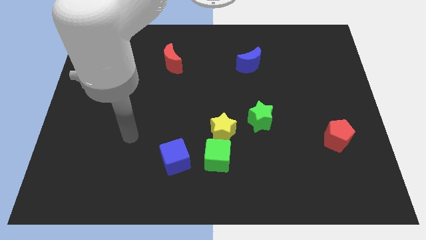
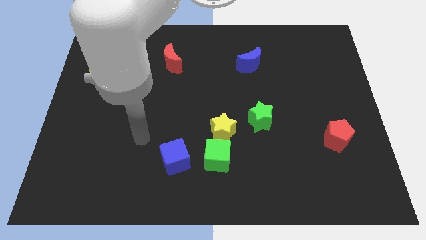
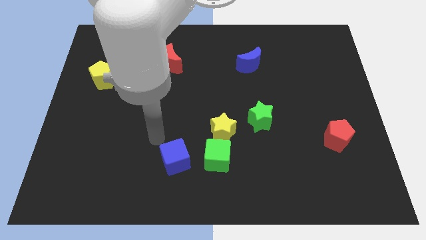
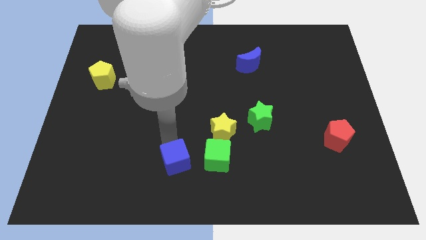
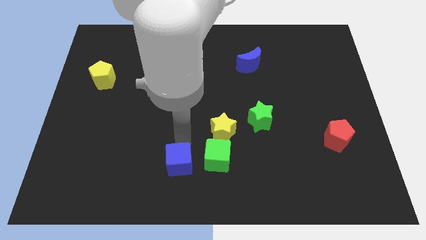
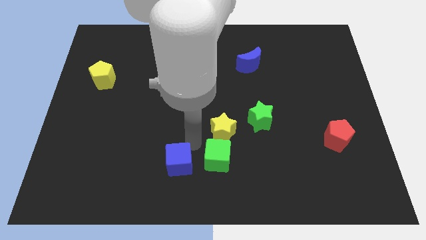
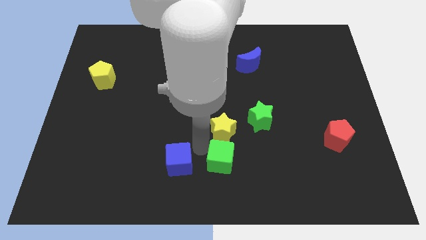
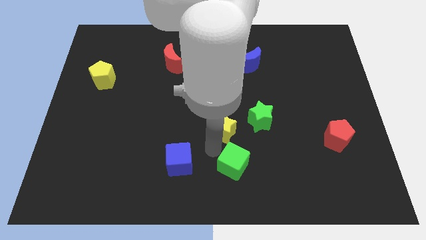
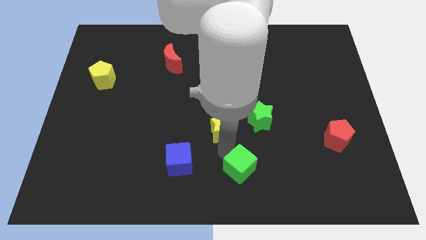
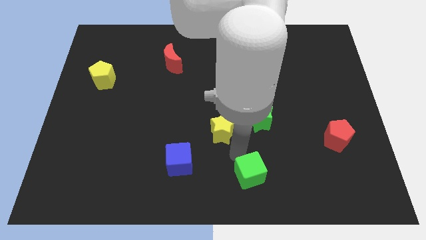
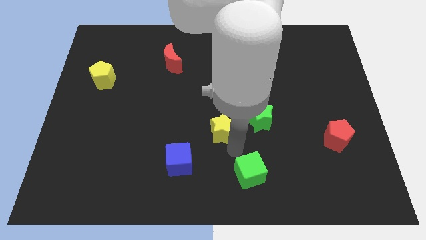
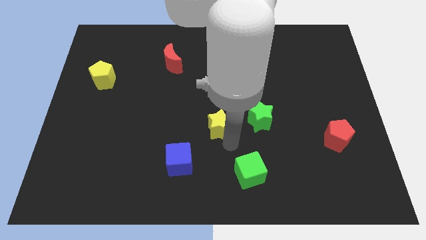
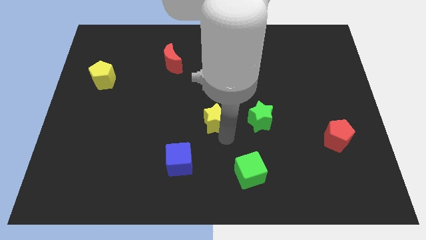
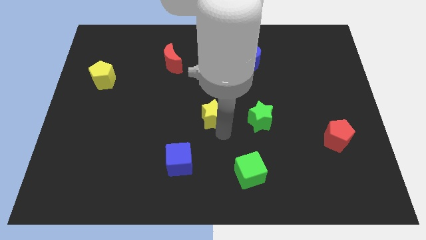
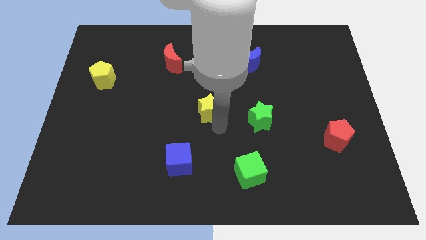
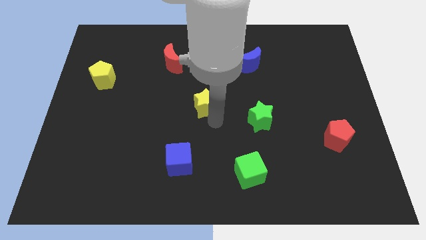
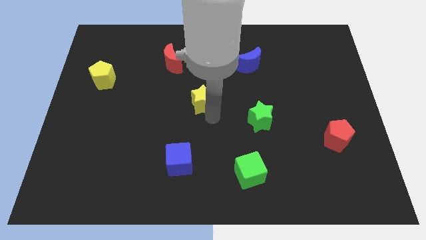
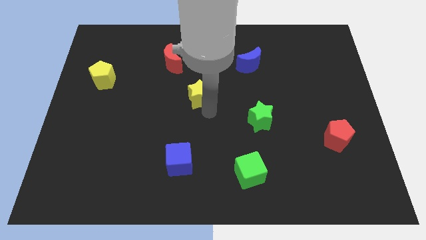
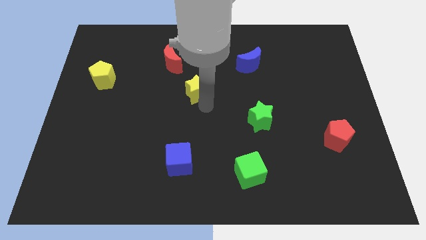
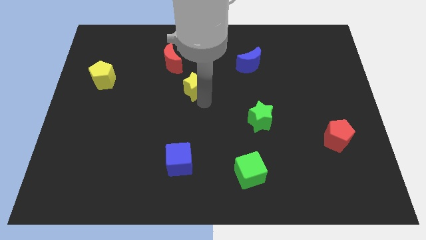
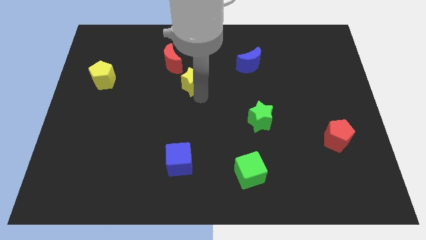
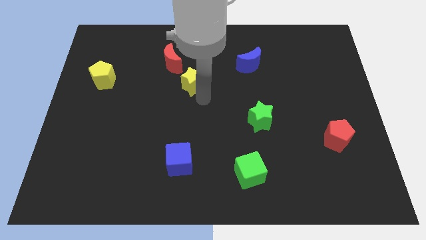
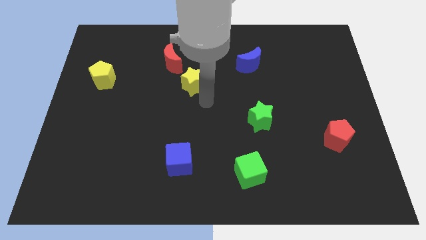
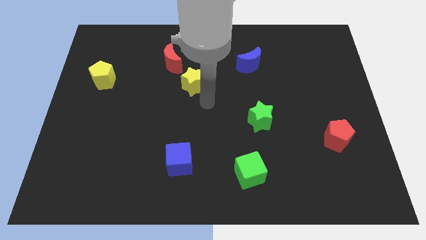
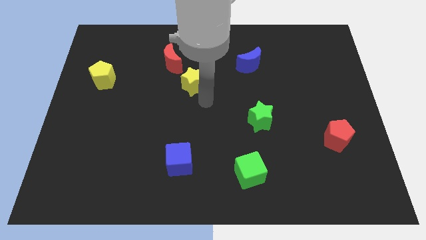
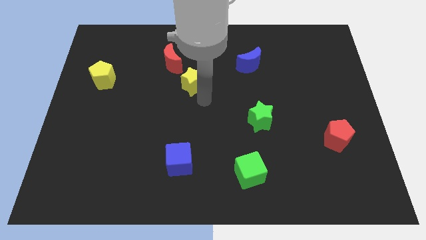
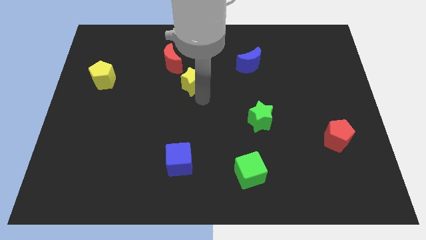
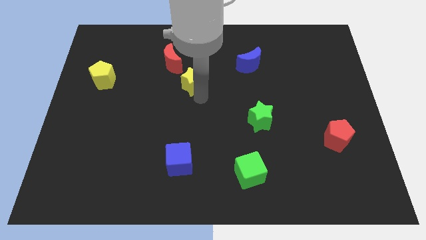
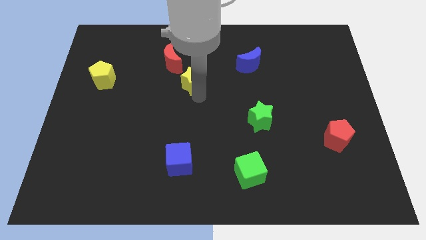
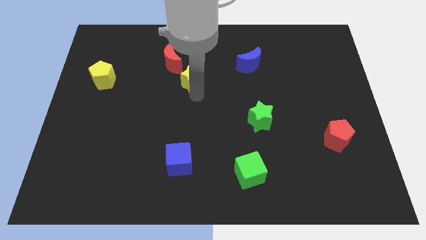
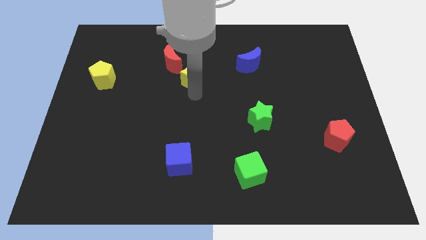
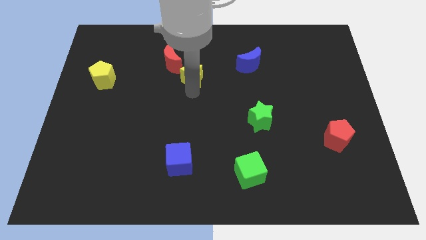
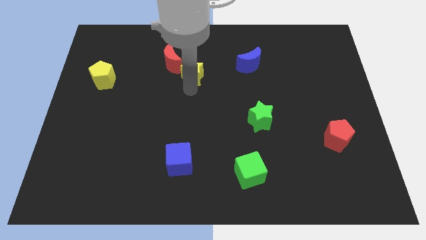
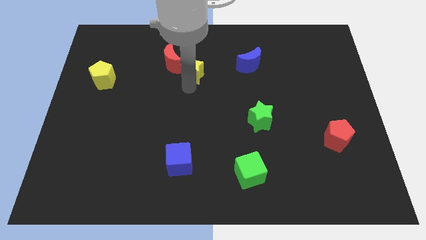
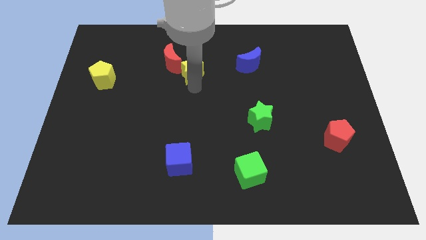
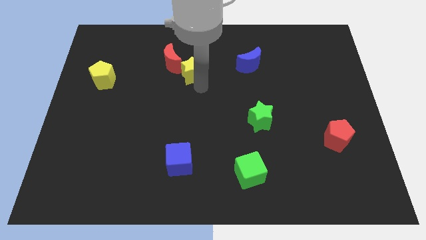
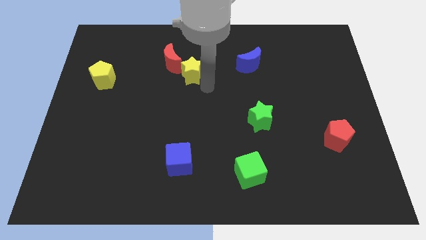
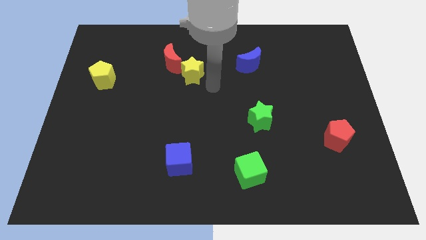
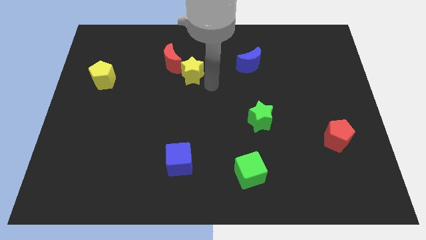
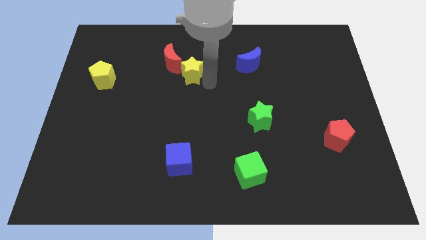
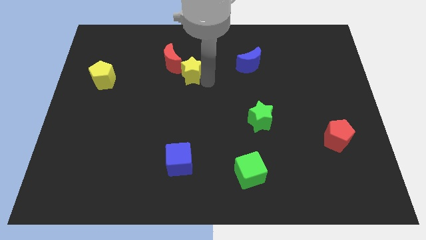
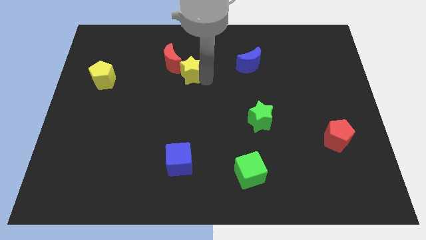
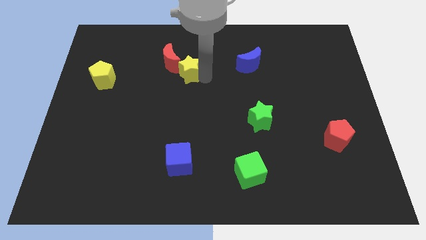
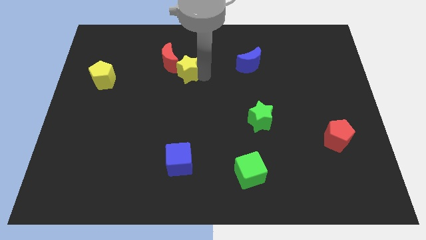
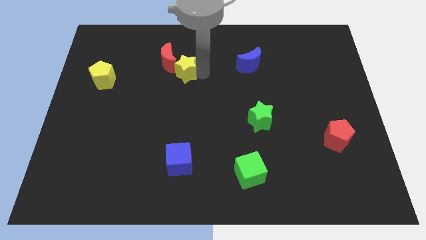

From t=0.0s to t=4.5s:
put the yellow star towards the red moon

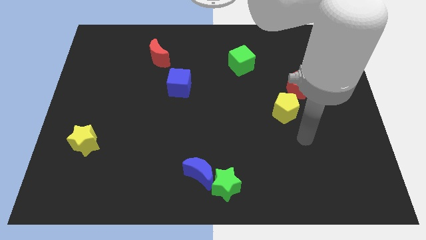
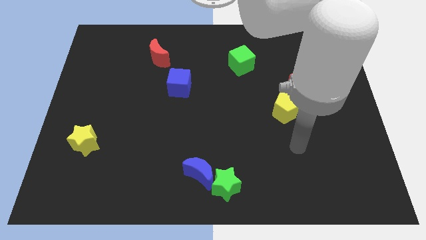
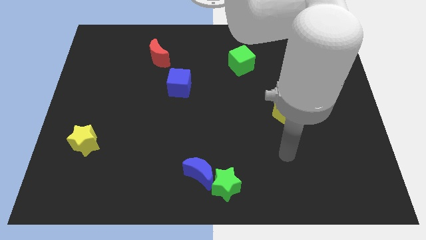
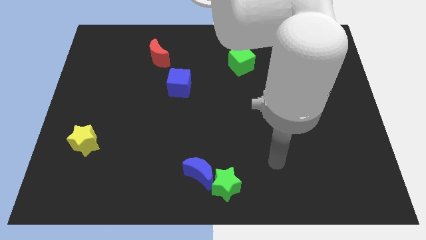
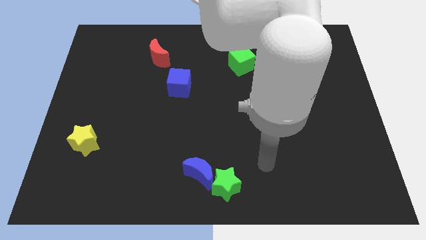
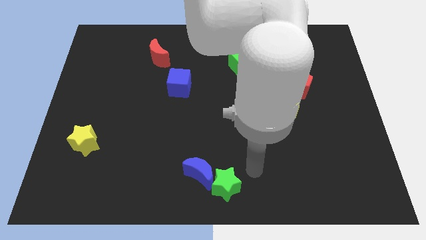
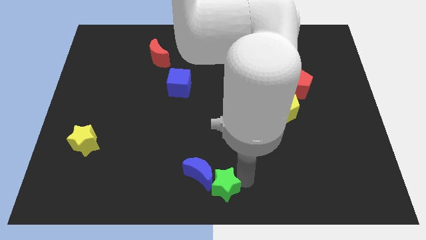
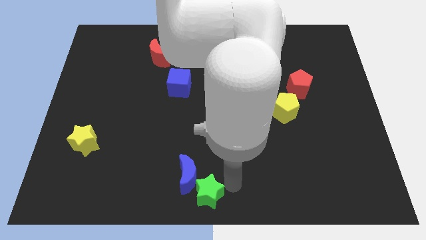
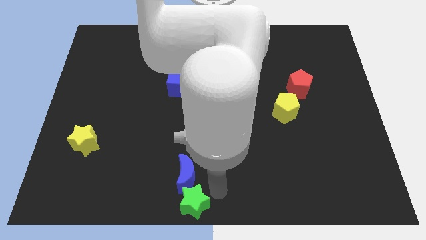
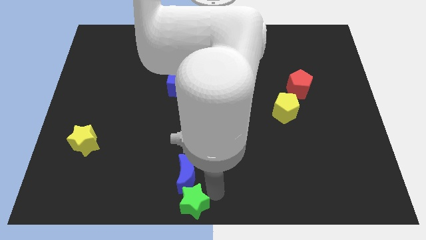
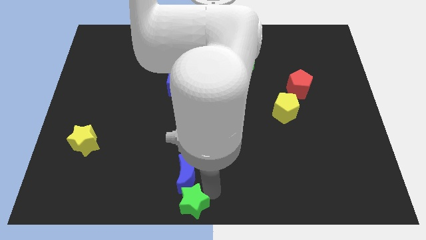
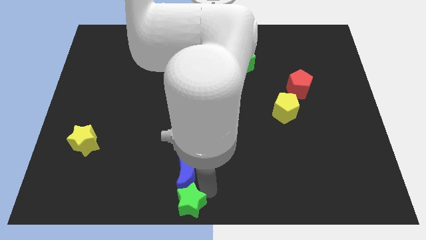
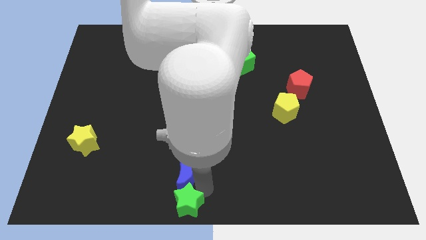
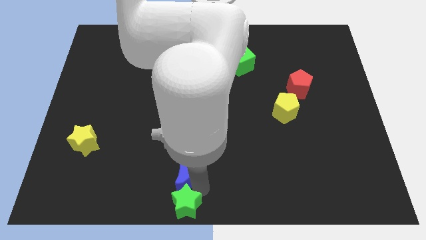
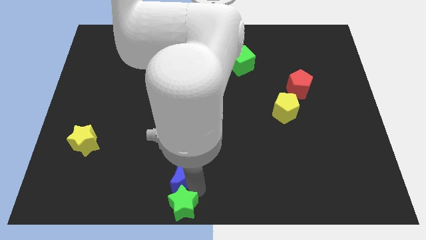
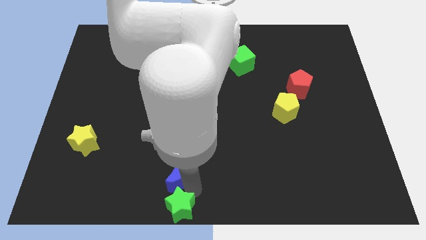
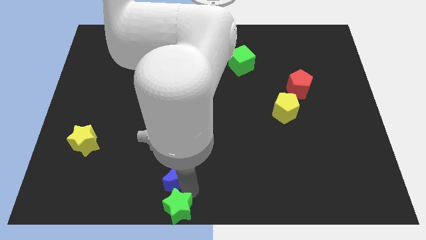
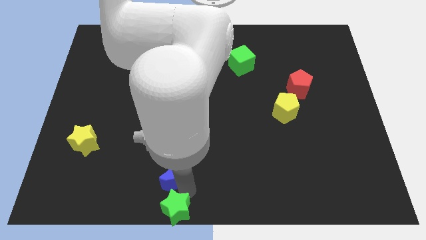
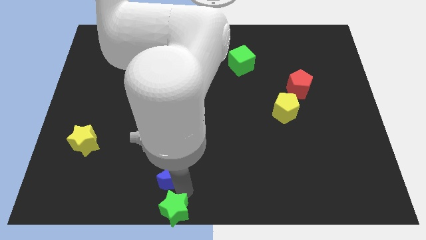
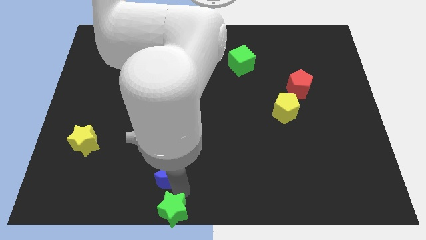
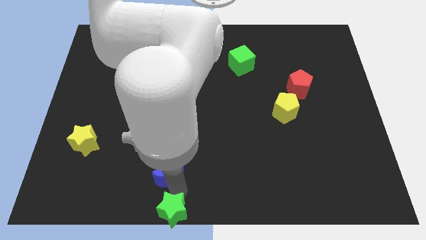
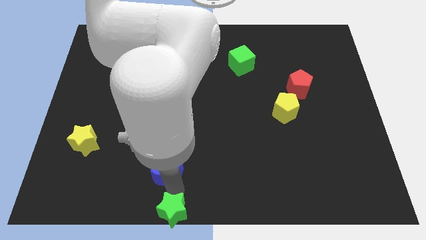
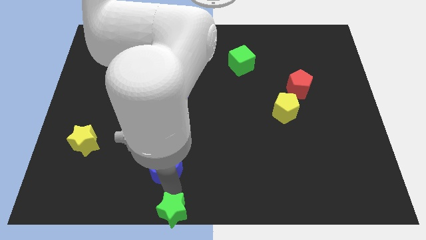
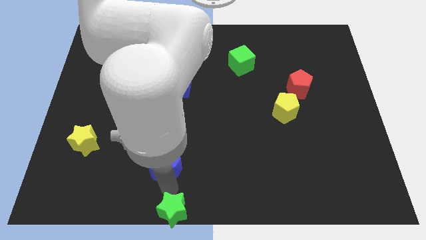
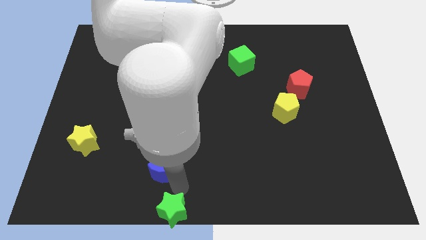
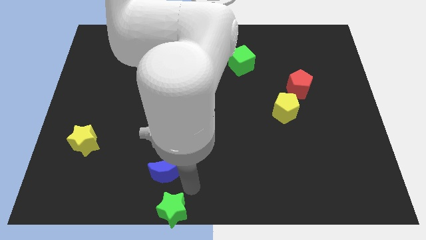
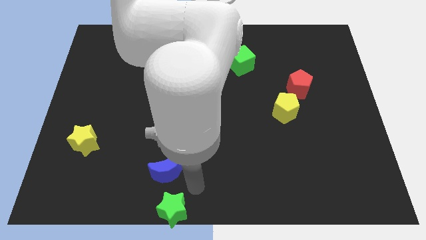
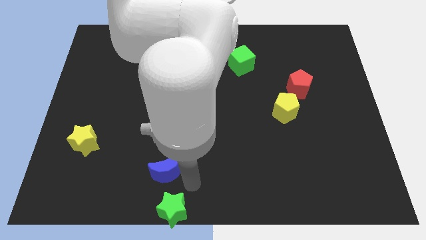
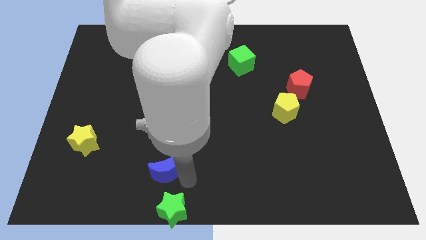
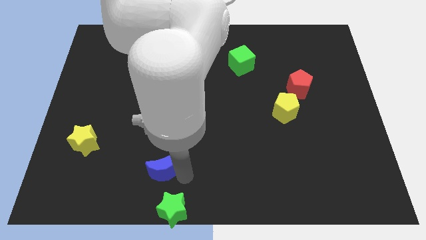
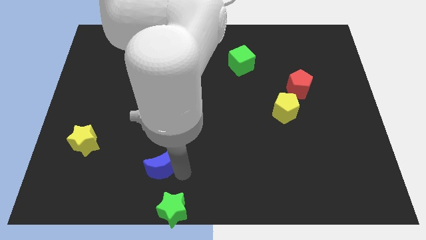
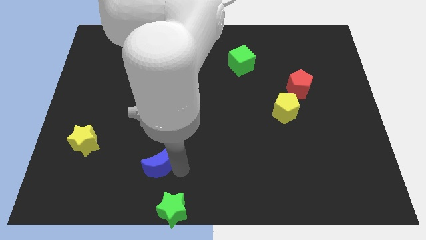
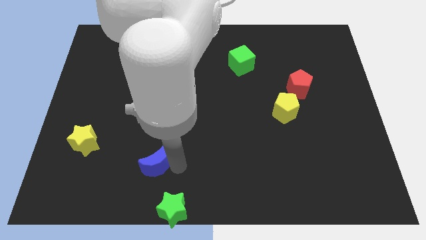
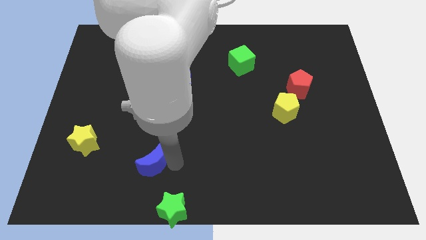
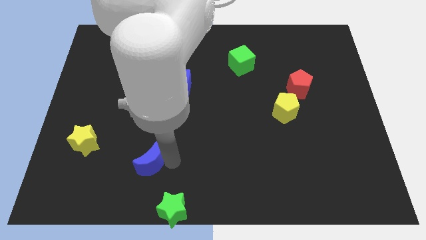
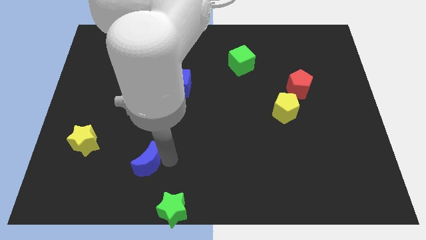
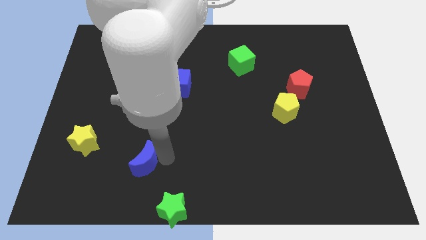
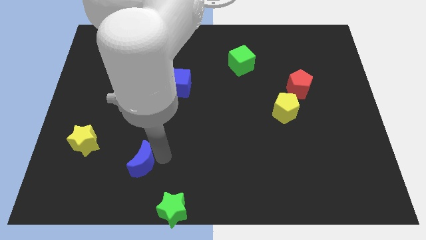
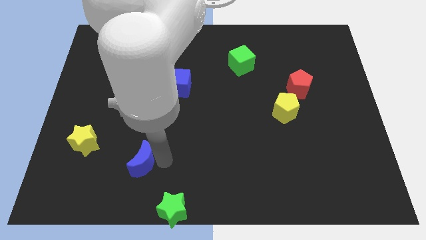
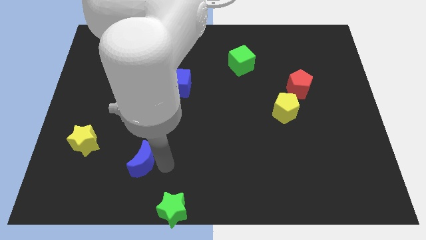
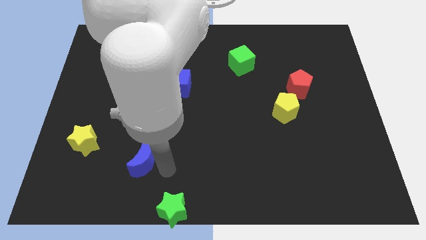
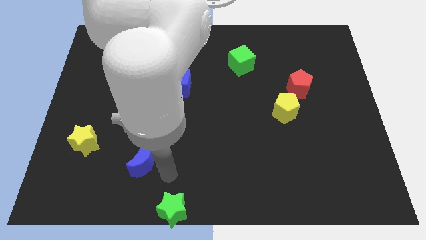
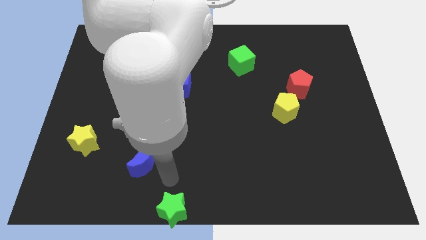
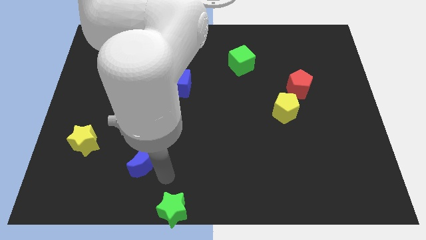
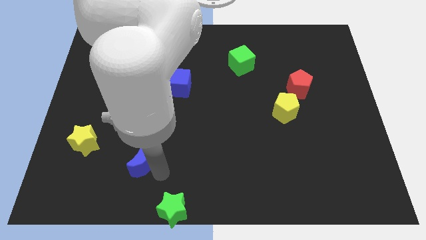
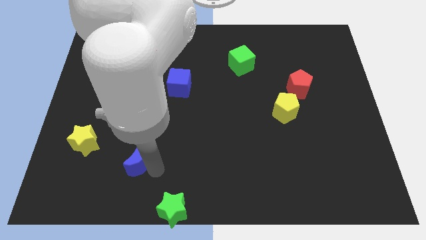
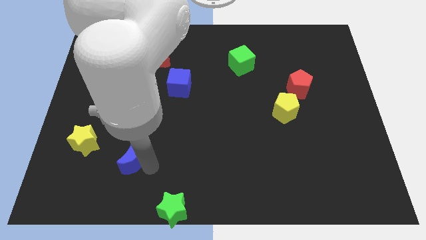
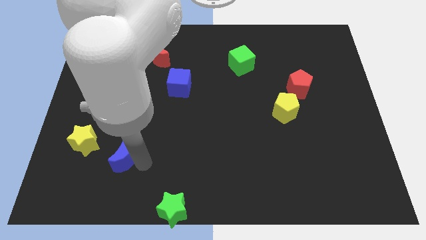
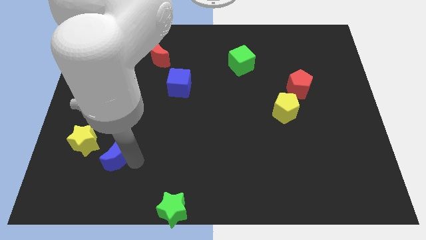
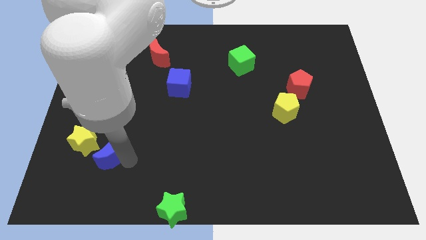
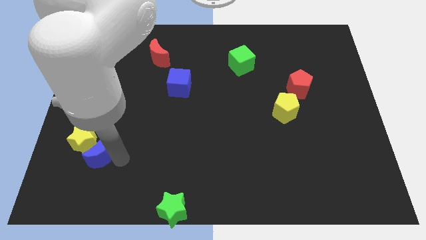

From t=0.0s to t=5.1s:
push the blue moon close to the yellow star
